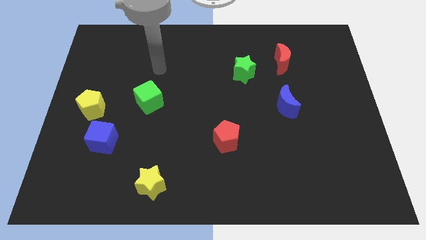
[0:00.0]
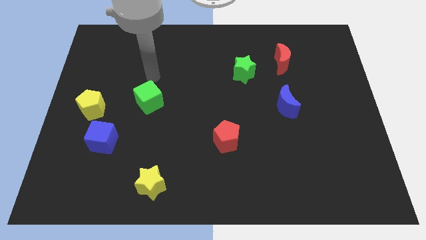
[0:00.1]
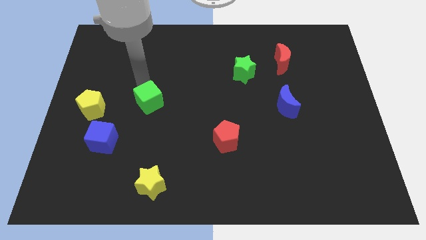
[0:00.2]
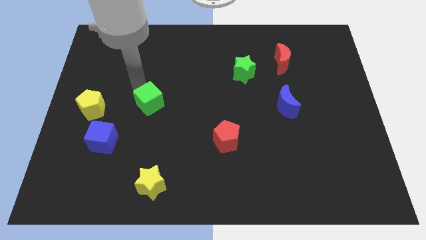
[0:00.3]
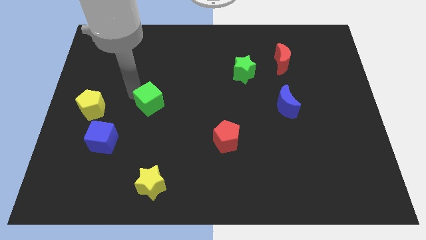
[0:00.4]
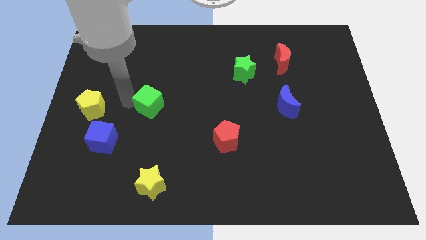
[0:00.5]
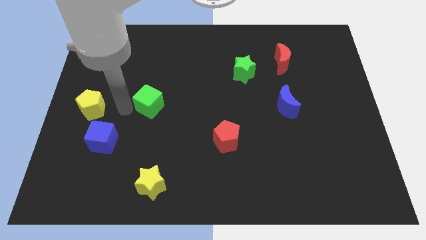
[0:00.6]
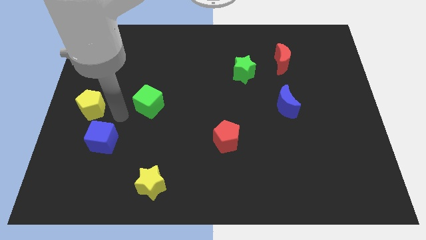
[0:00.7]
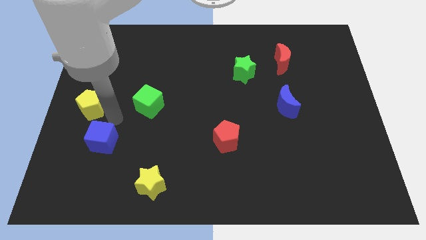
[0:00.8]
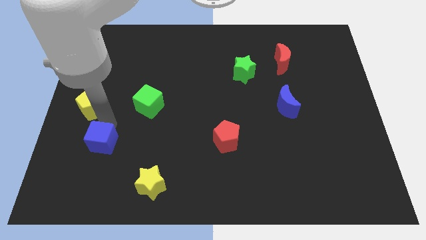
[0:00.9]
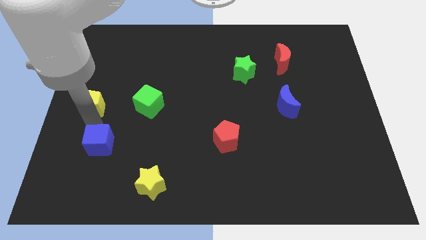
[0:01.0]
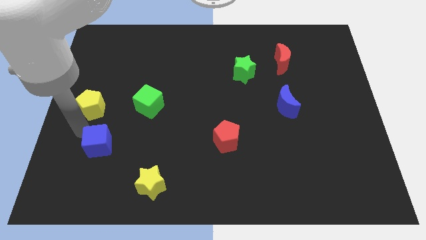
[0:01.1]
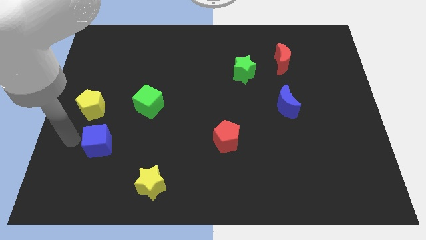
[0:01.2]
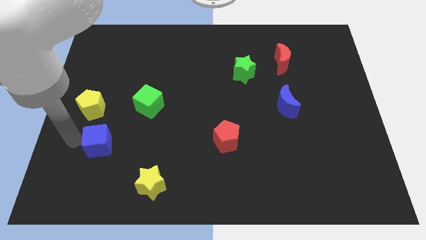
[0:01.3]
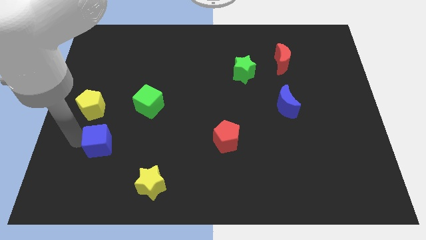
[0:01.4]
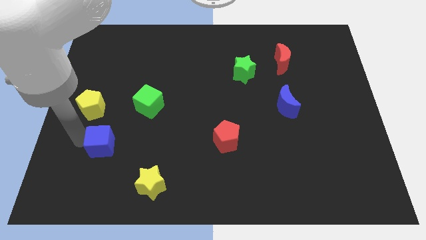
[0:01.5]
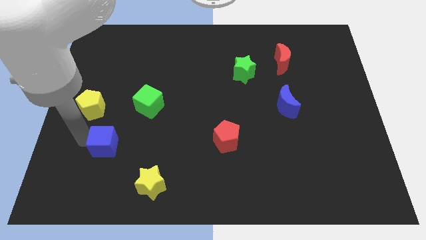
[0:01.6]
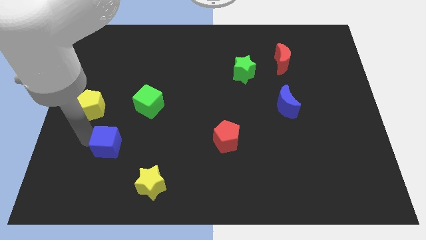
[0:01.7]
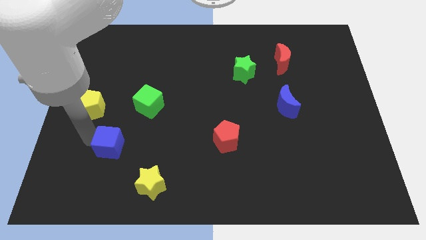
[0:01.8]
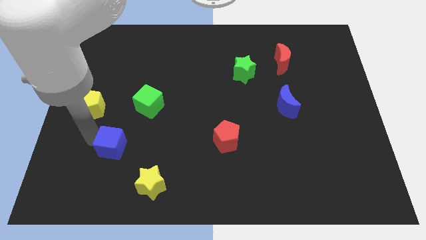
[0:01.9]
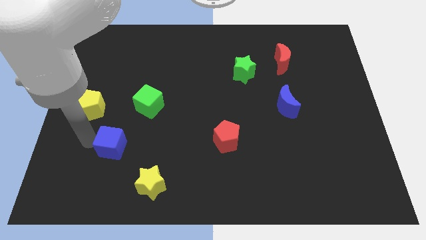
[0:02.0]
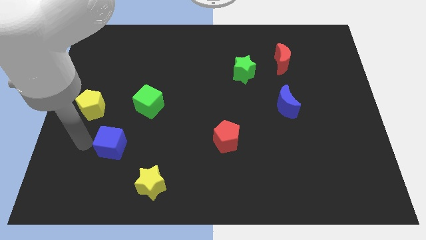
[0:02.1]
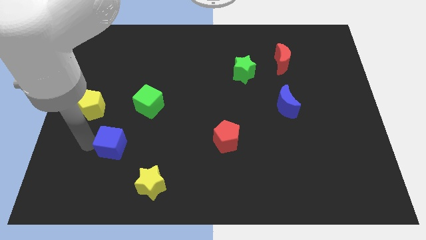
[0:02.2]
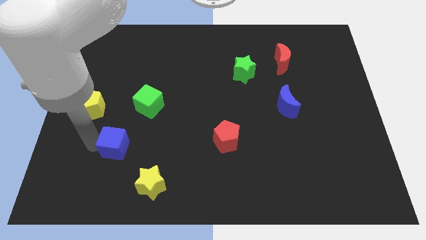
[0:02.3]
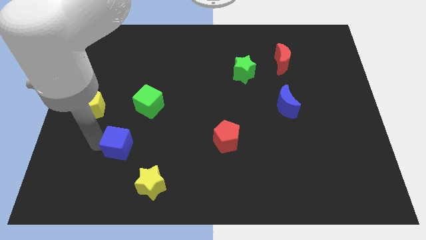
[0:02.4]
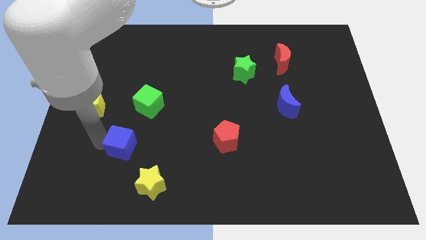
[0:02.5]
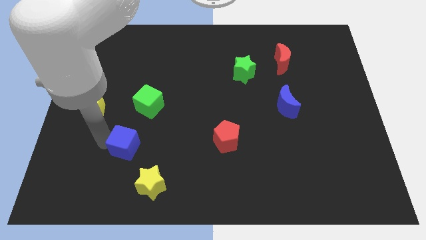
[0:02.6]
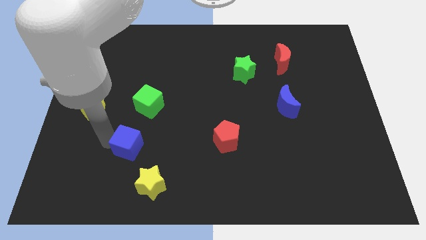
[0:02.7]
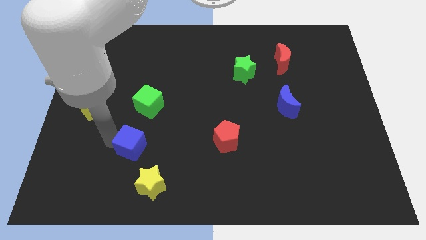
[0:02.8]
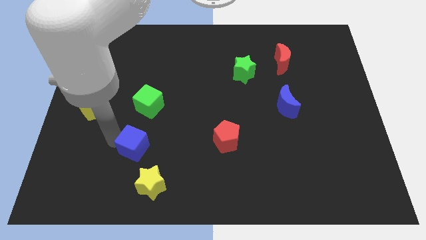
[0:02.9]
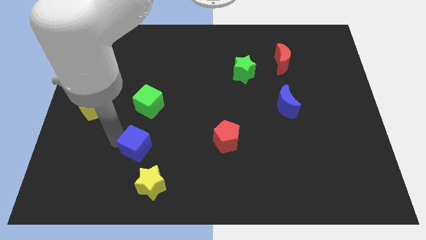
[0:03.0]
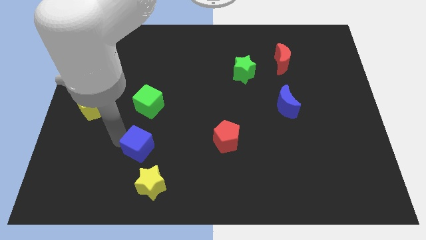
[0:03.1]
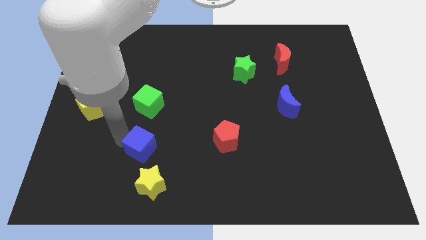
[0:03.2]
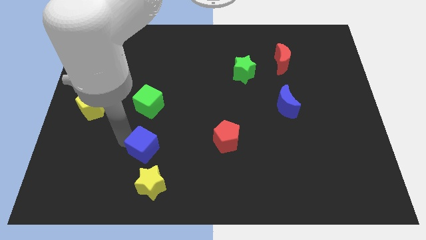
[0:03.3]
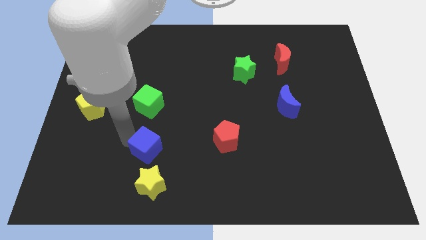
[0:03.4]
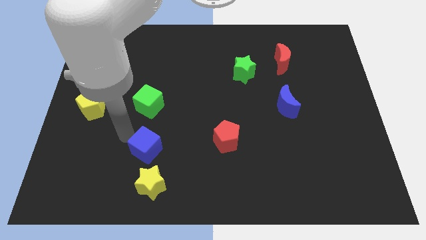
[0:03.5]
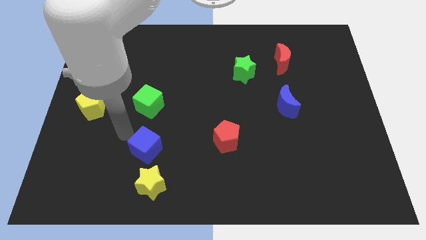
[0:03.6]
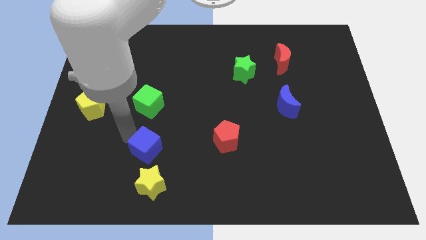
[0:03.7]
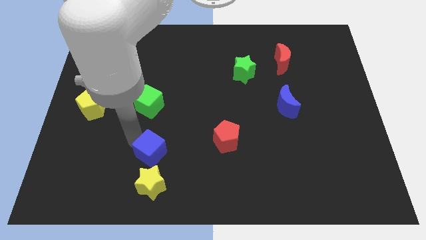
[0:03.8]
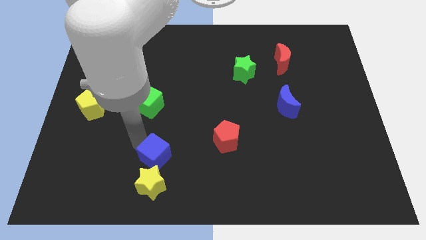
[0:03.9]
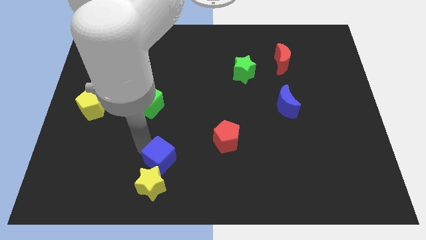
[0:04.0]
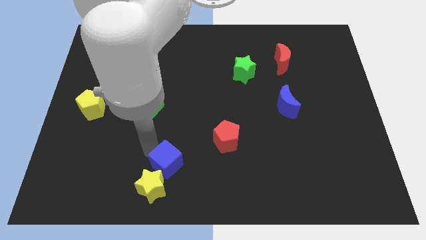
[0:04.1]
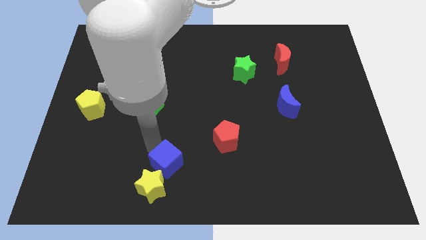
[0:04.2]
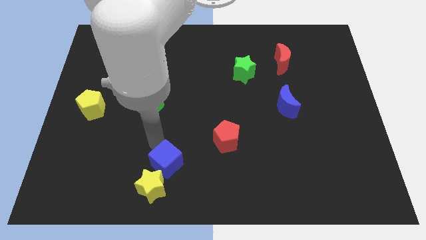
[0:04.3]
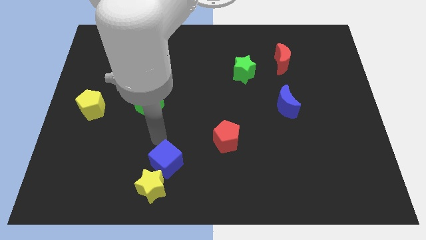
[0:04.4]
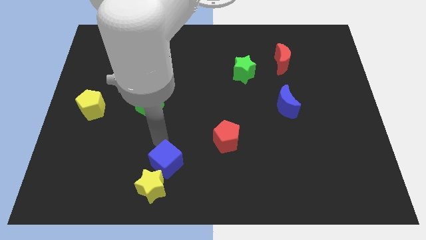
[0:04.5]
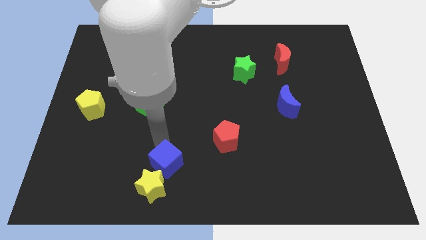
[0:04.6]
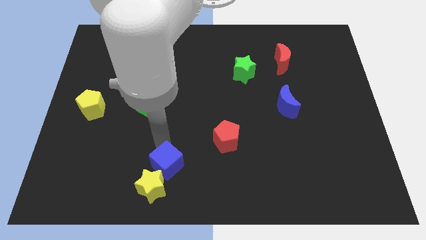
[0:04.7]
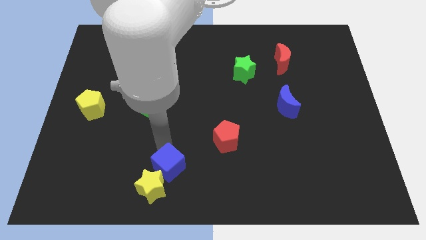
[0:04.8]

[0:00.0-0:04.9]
push the blue cube to the bottom side

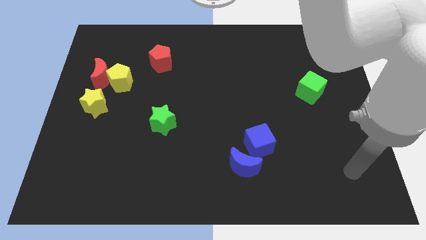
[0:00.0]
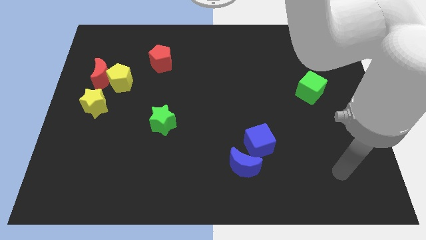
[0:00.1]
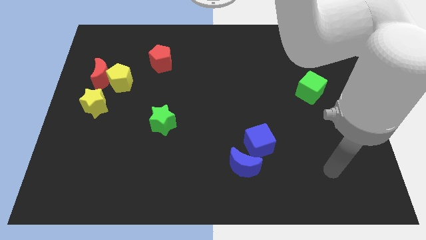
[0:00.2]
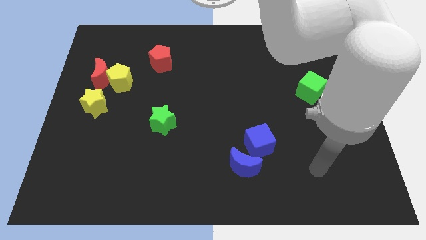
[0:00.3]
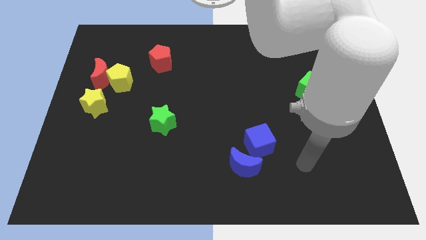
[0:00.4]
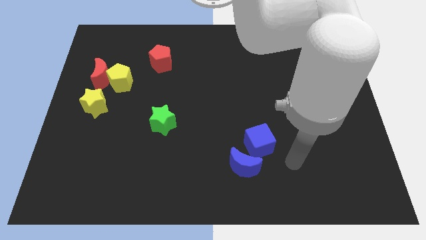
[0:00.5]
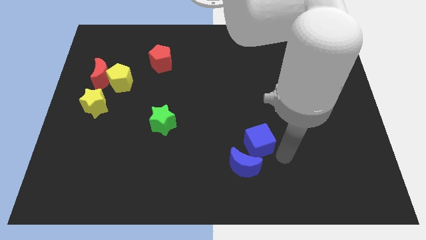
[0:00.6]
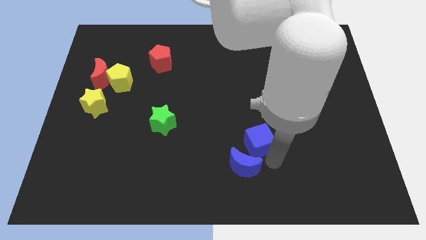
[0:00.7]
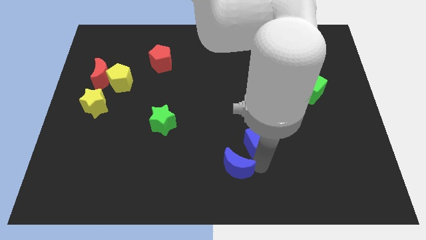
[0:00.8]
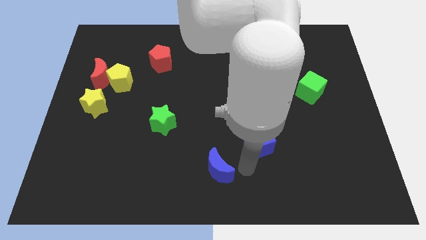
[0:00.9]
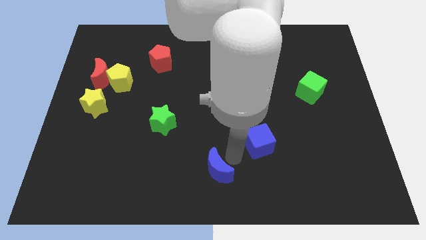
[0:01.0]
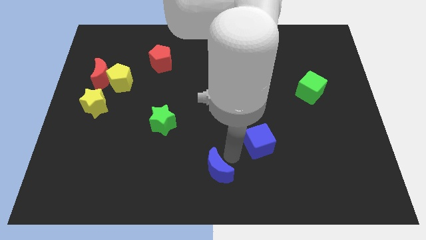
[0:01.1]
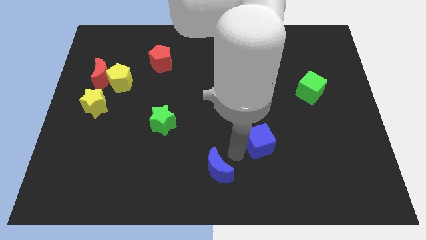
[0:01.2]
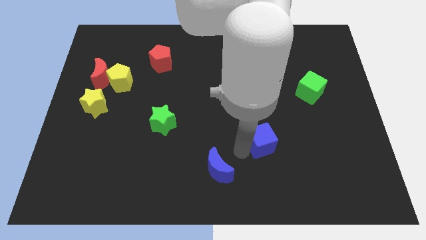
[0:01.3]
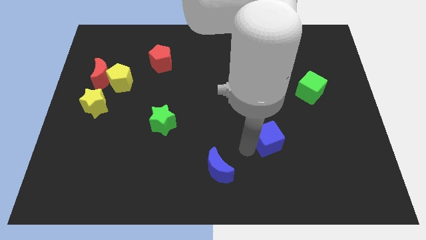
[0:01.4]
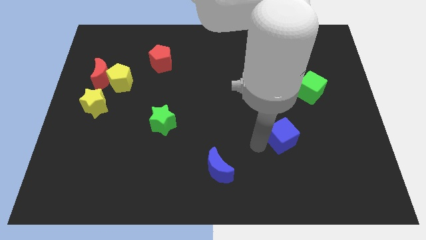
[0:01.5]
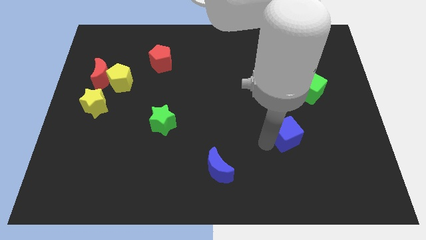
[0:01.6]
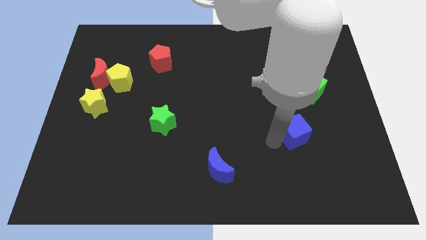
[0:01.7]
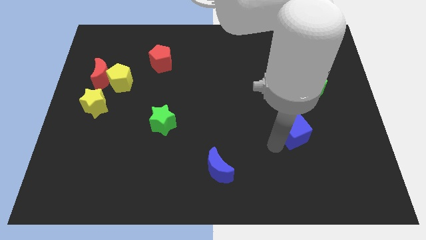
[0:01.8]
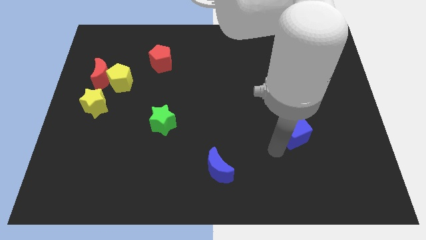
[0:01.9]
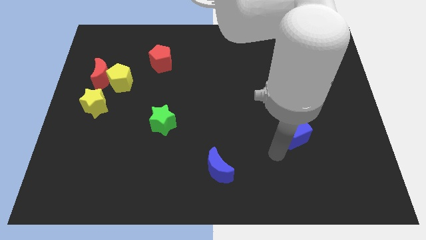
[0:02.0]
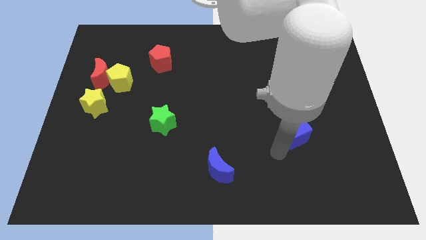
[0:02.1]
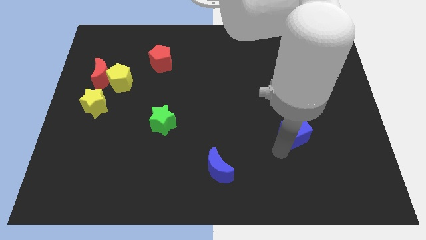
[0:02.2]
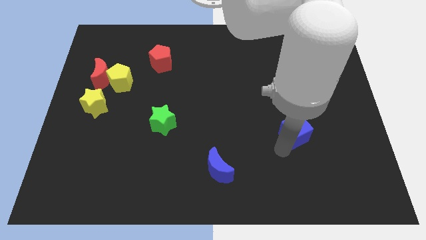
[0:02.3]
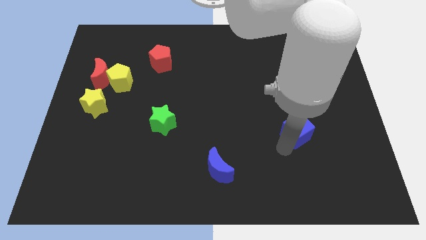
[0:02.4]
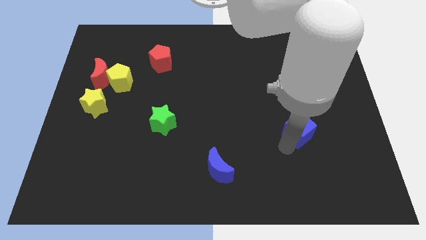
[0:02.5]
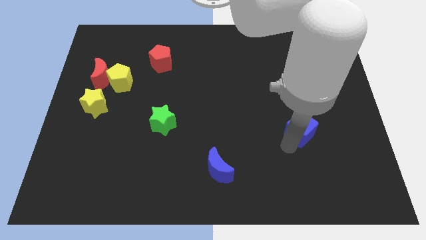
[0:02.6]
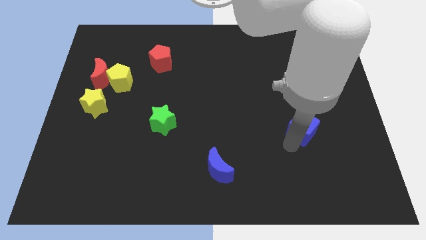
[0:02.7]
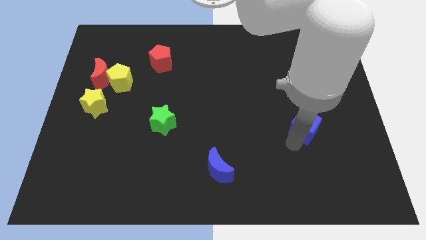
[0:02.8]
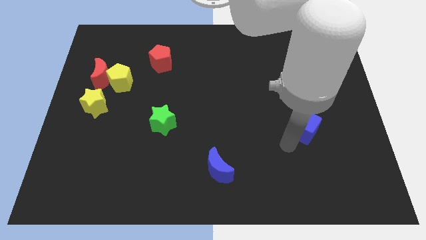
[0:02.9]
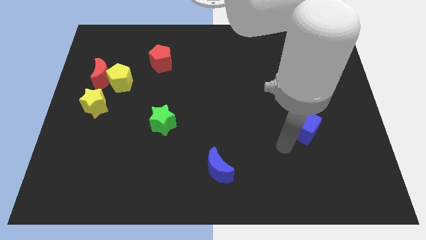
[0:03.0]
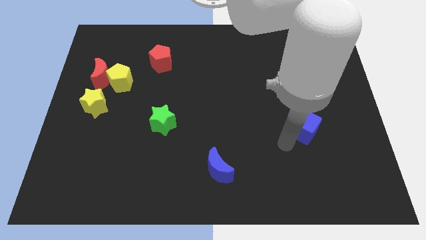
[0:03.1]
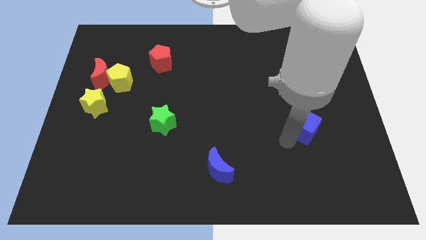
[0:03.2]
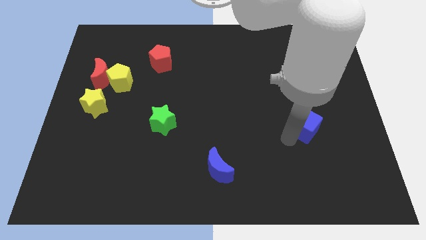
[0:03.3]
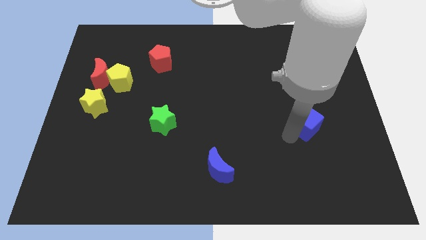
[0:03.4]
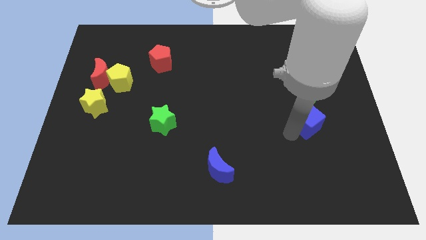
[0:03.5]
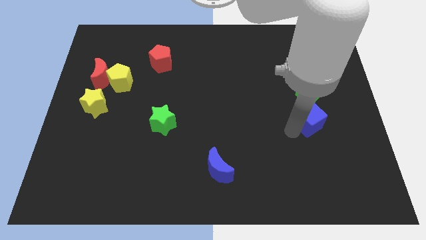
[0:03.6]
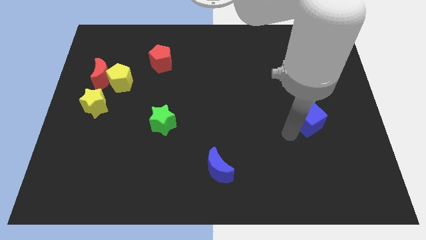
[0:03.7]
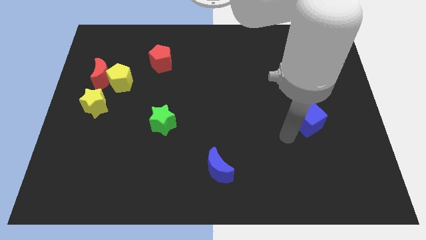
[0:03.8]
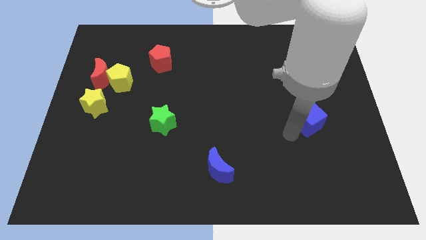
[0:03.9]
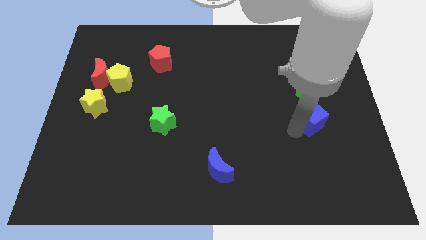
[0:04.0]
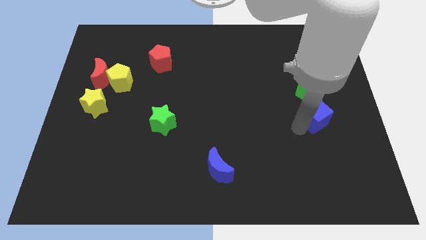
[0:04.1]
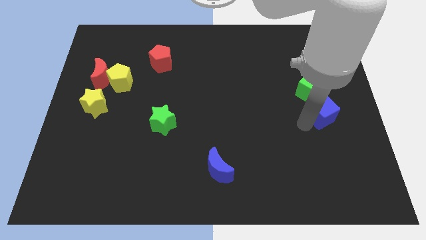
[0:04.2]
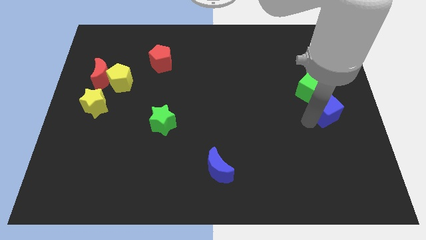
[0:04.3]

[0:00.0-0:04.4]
move the blue cube to the right side
